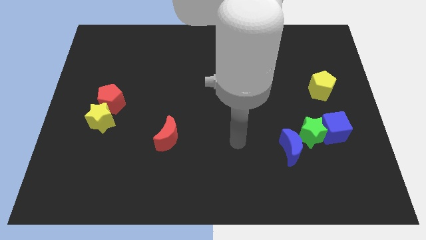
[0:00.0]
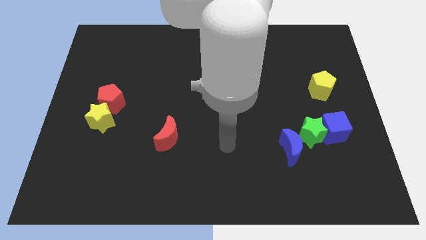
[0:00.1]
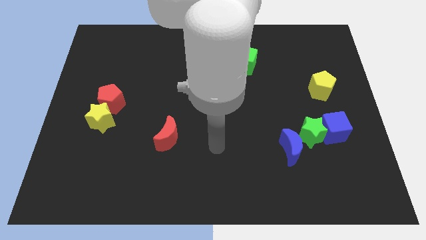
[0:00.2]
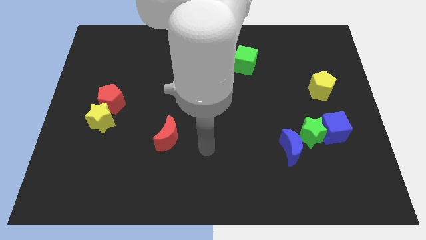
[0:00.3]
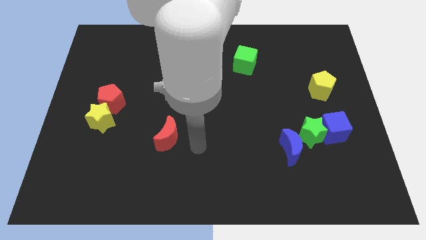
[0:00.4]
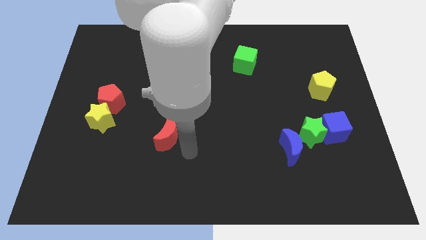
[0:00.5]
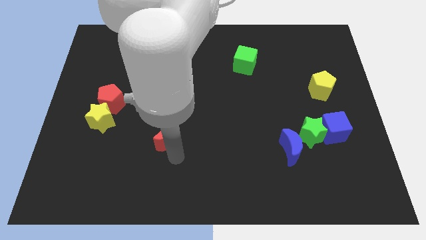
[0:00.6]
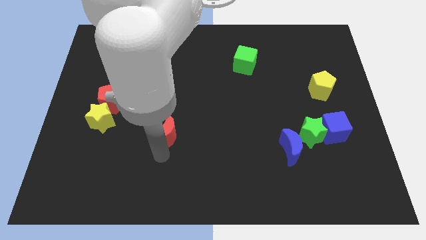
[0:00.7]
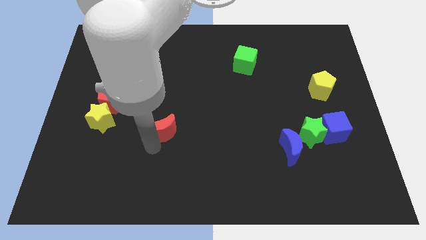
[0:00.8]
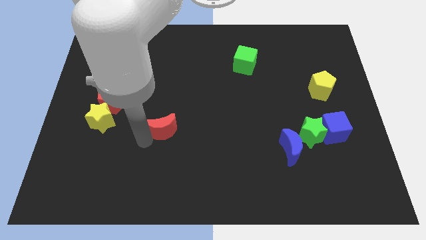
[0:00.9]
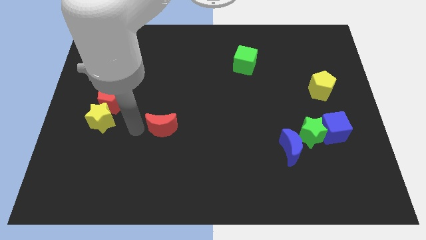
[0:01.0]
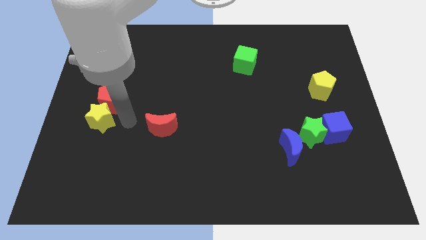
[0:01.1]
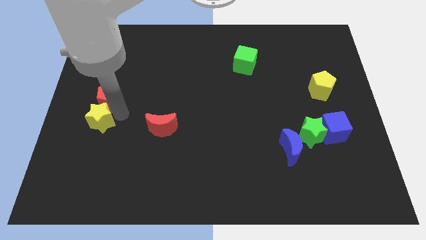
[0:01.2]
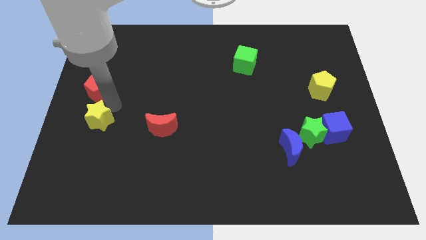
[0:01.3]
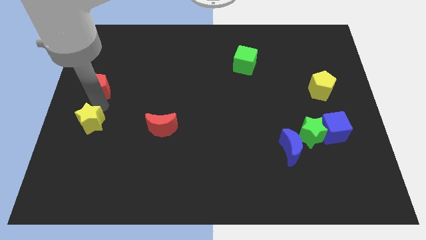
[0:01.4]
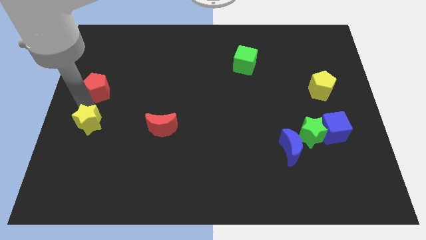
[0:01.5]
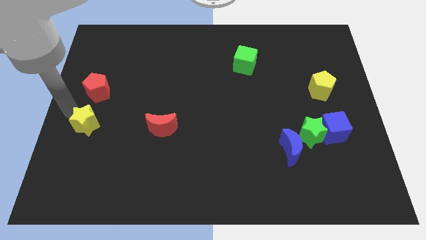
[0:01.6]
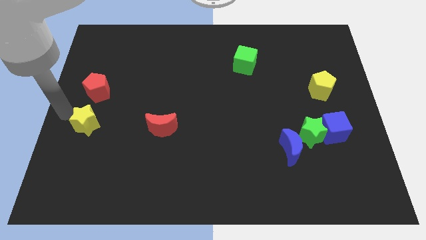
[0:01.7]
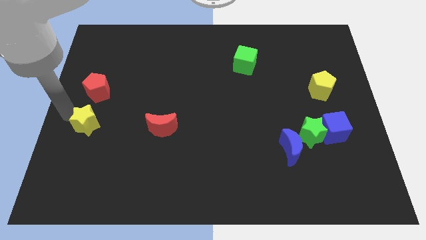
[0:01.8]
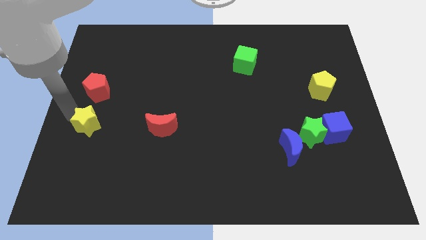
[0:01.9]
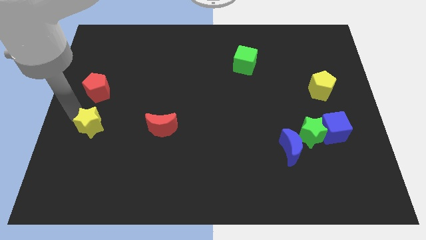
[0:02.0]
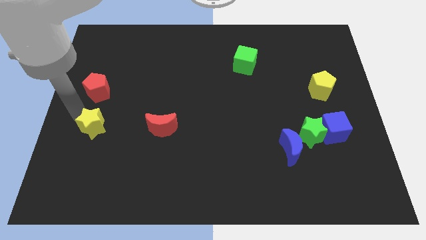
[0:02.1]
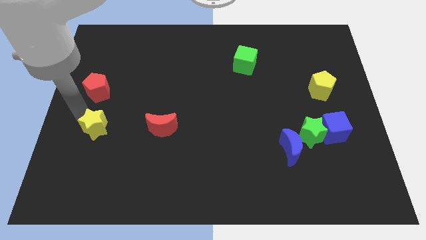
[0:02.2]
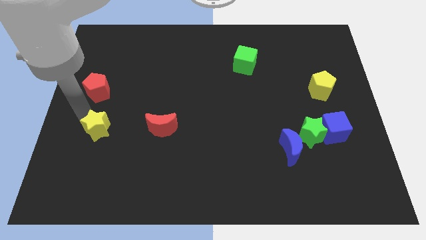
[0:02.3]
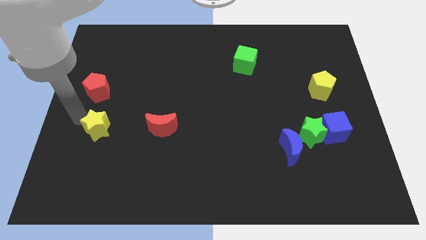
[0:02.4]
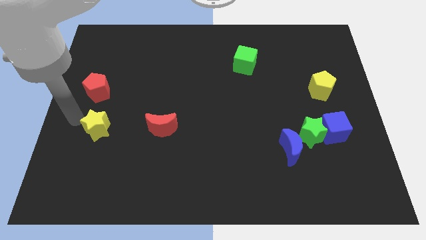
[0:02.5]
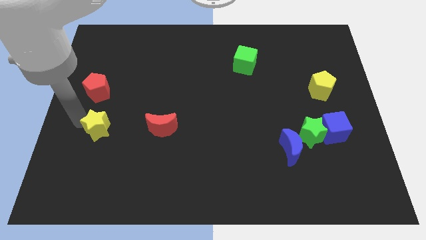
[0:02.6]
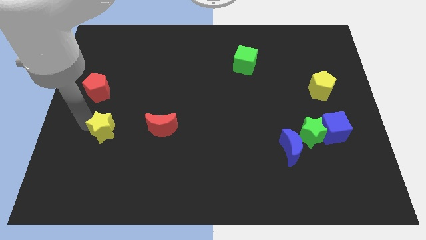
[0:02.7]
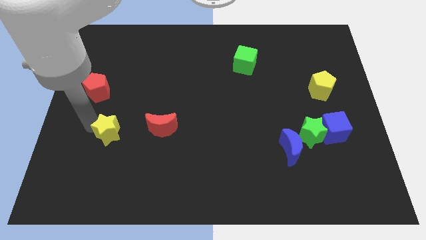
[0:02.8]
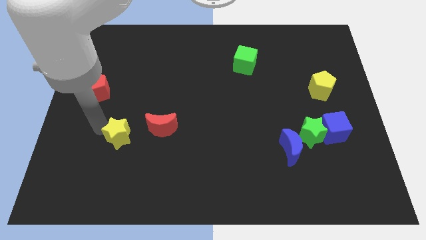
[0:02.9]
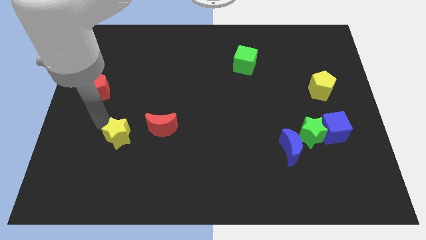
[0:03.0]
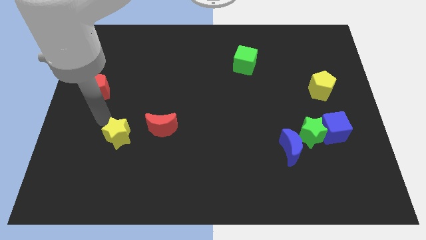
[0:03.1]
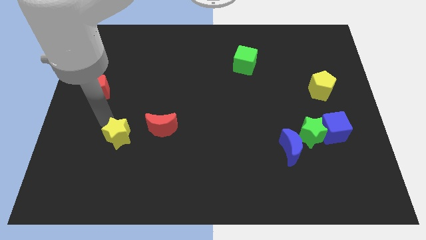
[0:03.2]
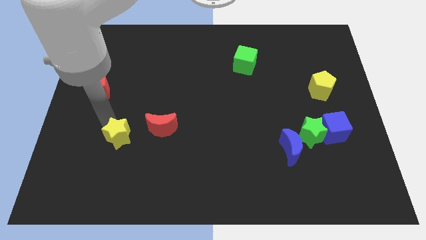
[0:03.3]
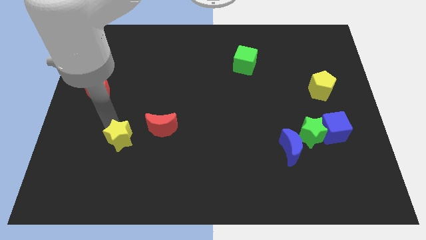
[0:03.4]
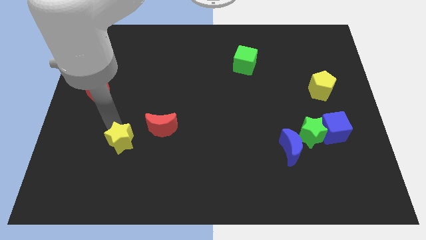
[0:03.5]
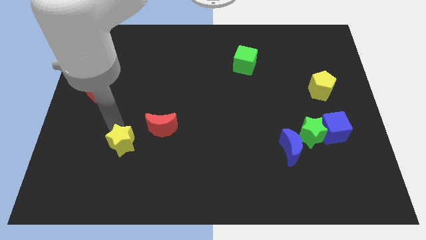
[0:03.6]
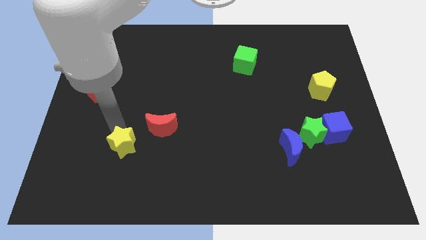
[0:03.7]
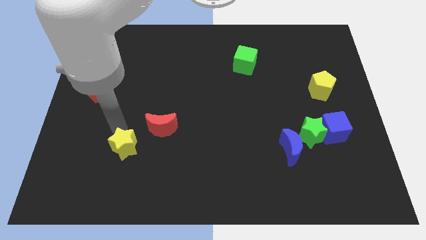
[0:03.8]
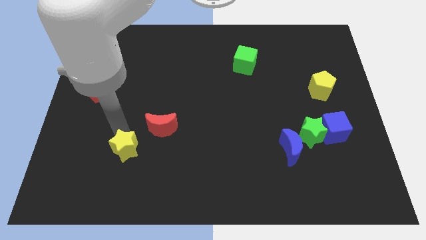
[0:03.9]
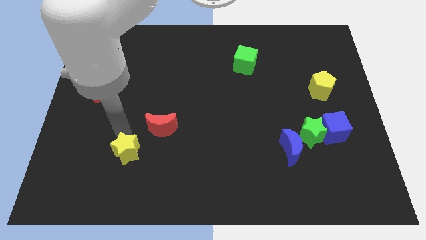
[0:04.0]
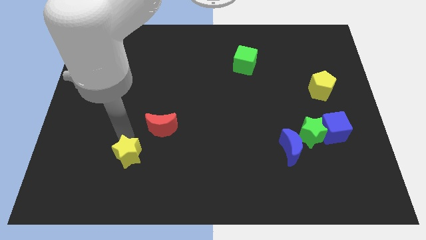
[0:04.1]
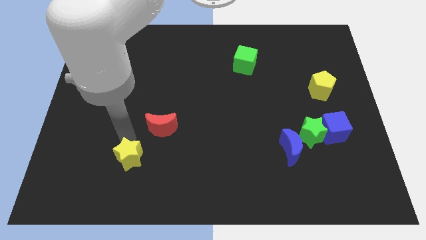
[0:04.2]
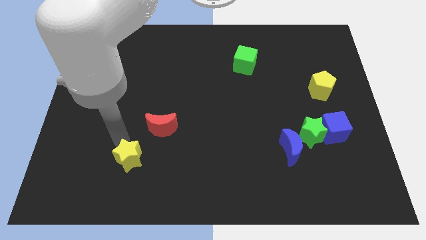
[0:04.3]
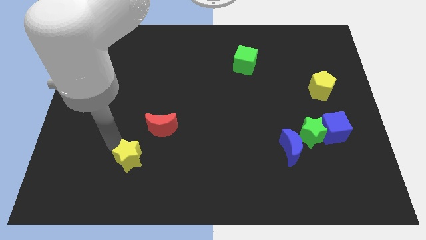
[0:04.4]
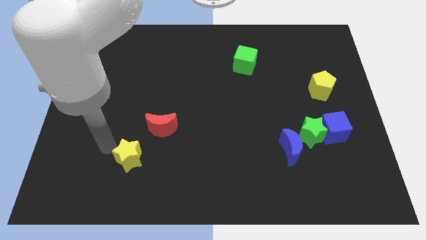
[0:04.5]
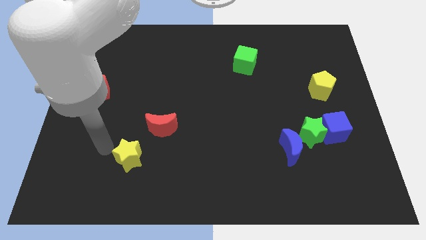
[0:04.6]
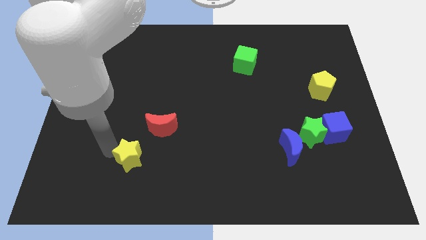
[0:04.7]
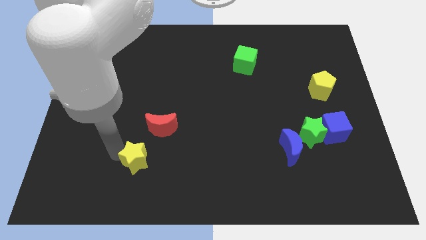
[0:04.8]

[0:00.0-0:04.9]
move the yellow star to the bottom of the red moon

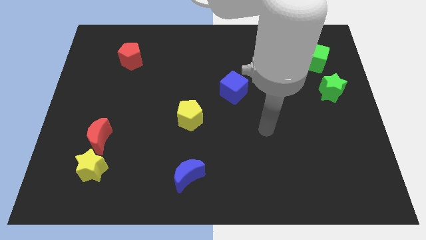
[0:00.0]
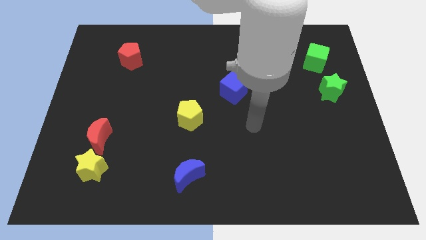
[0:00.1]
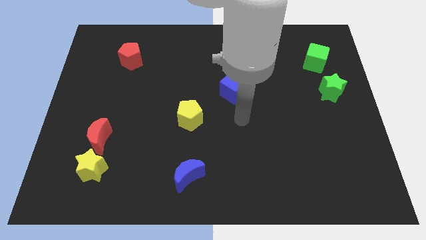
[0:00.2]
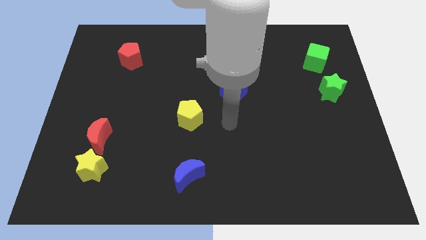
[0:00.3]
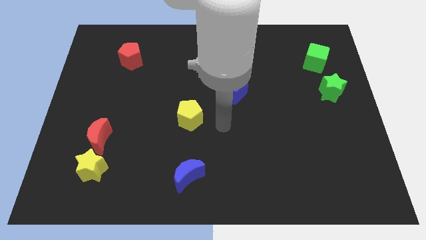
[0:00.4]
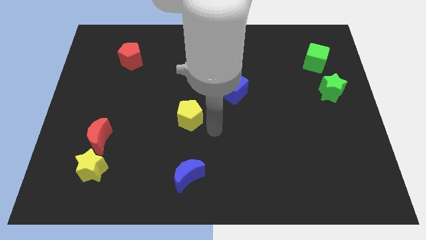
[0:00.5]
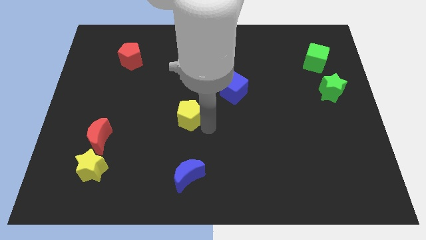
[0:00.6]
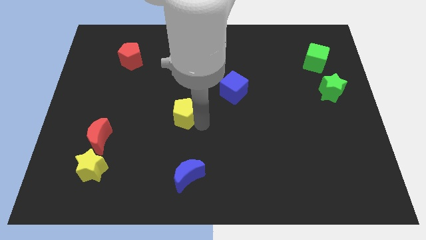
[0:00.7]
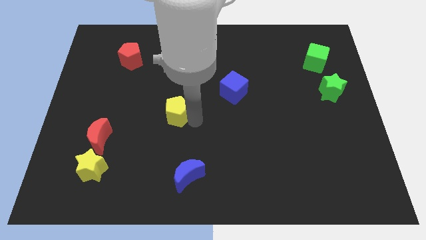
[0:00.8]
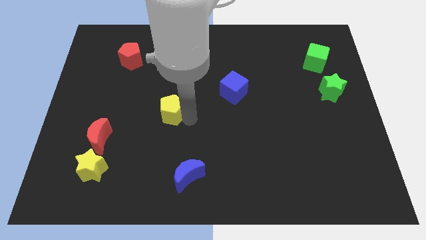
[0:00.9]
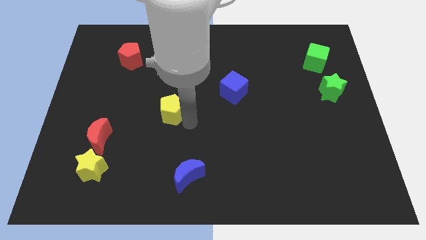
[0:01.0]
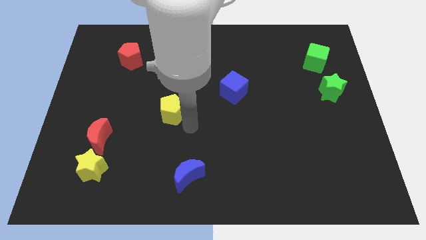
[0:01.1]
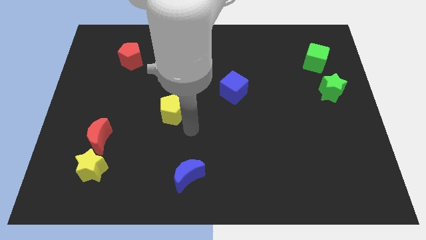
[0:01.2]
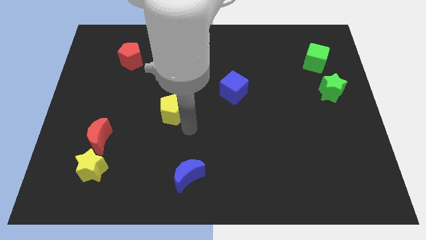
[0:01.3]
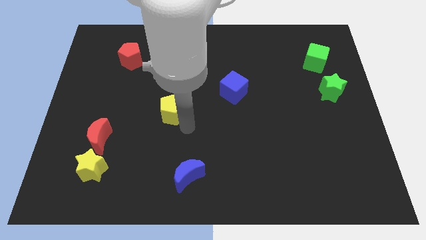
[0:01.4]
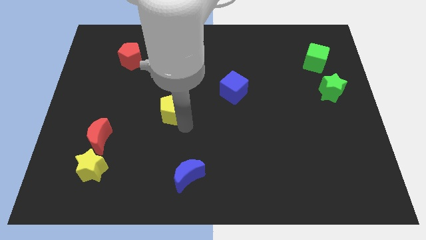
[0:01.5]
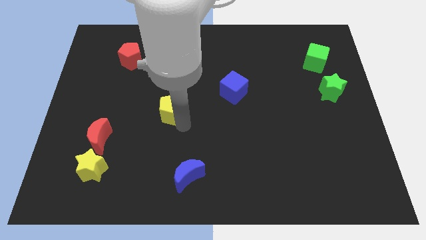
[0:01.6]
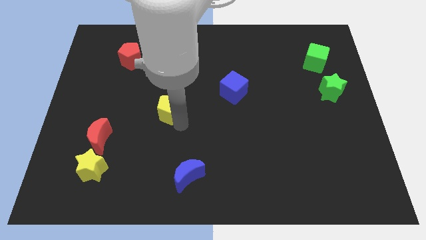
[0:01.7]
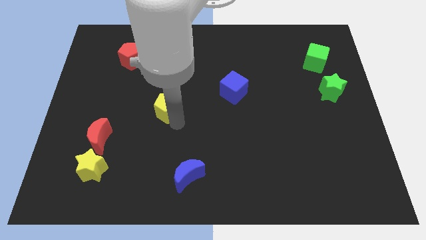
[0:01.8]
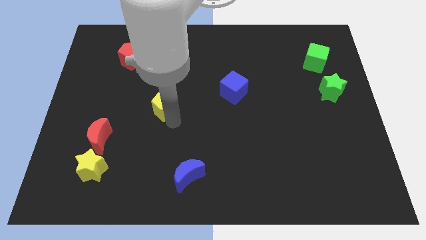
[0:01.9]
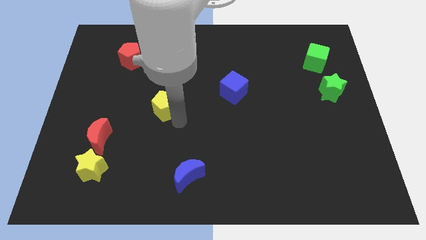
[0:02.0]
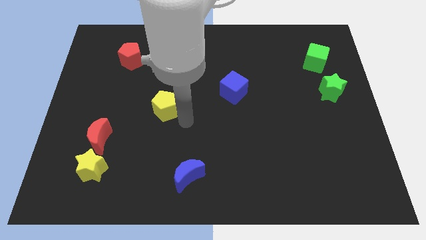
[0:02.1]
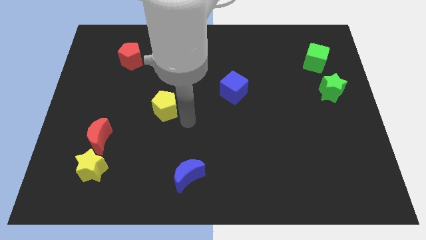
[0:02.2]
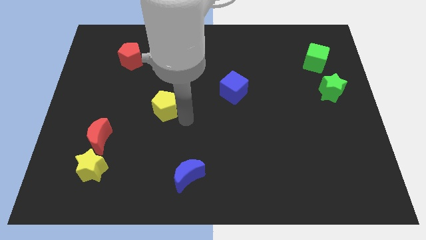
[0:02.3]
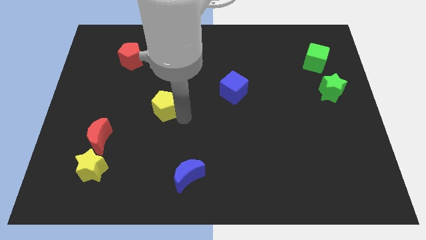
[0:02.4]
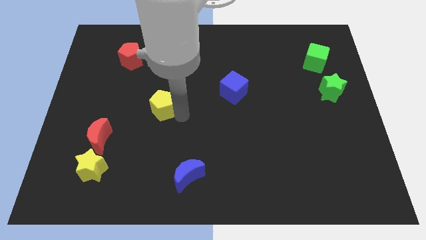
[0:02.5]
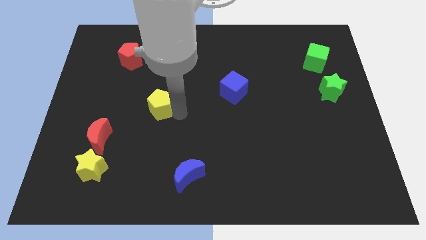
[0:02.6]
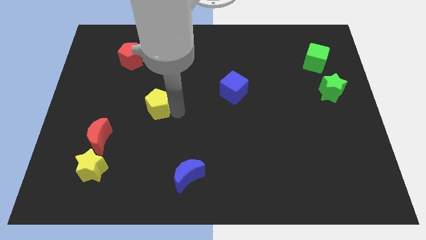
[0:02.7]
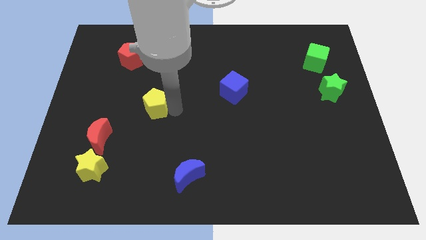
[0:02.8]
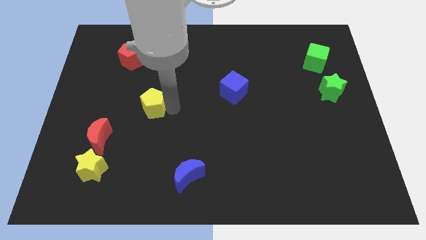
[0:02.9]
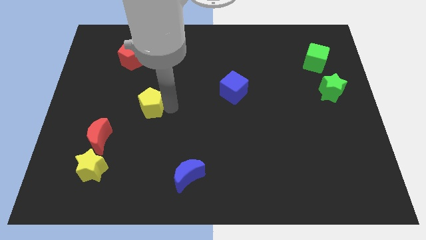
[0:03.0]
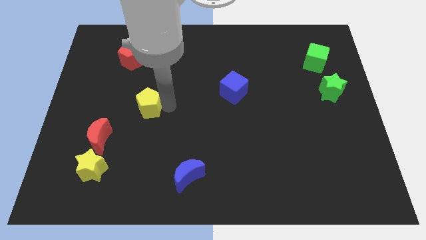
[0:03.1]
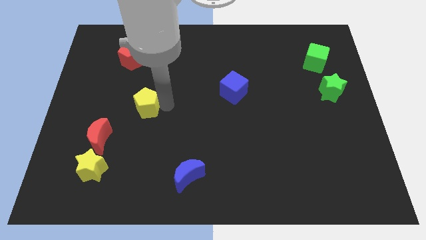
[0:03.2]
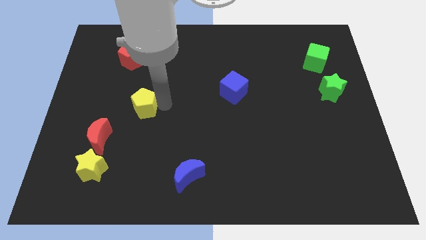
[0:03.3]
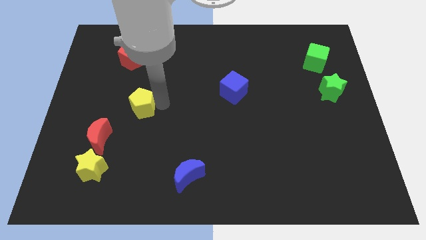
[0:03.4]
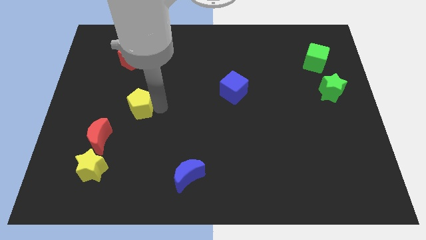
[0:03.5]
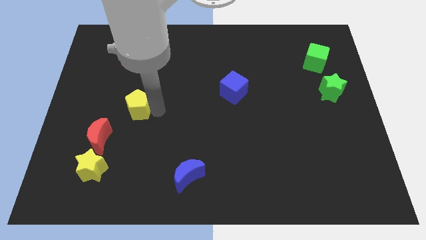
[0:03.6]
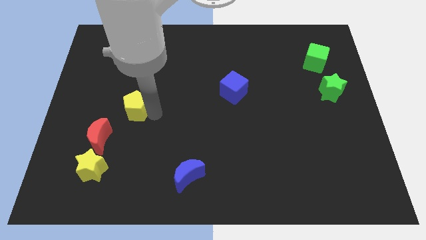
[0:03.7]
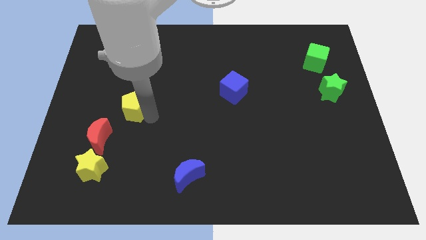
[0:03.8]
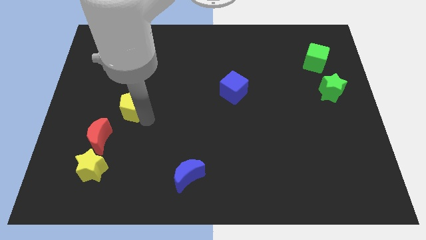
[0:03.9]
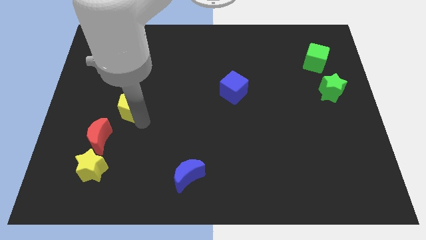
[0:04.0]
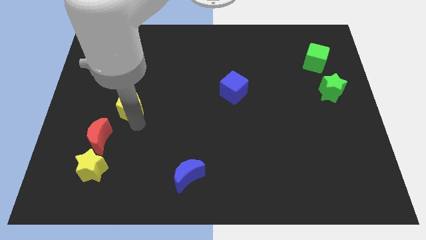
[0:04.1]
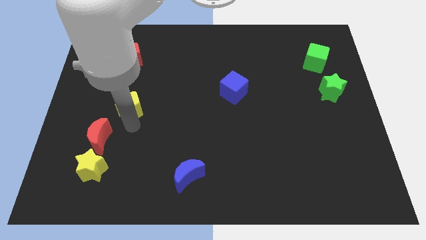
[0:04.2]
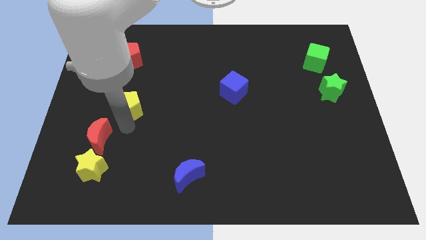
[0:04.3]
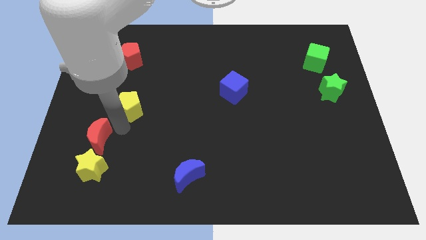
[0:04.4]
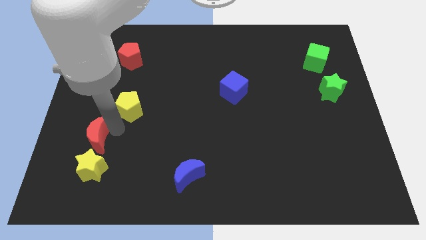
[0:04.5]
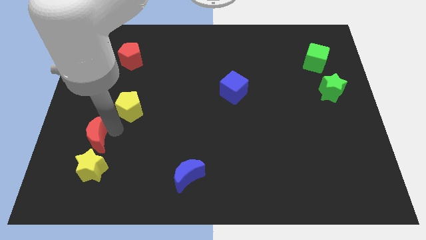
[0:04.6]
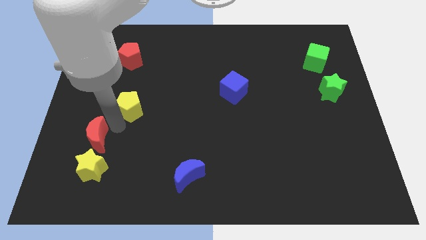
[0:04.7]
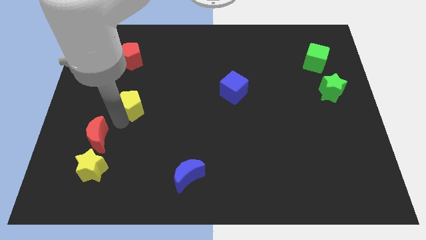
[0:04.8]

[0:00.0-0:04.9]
put the yellow pentagon to the bottom of the red pentagon
